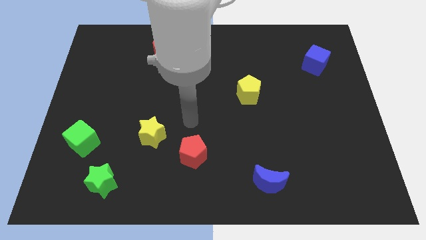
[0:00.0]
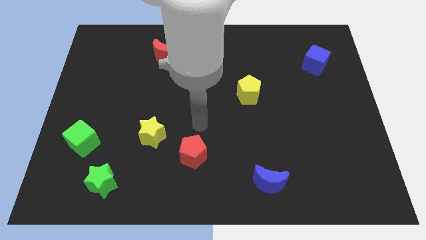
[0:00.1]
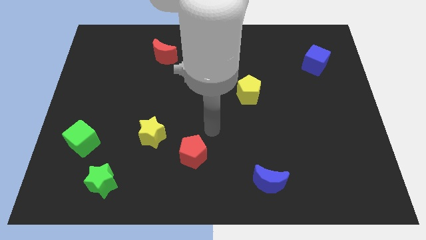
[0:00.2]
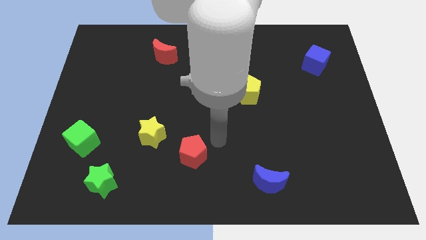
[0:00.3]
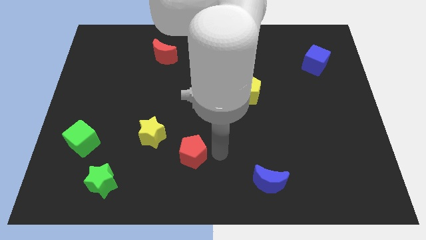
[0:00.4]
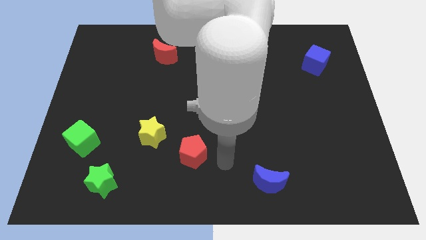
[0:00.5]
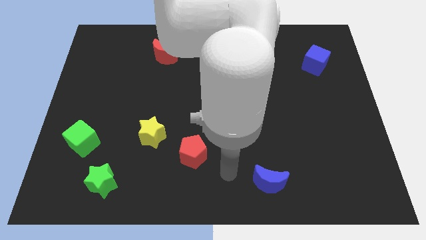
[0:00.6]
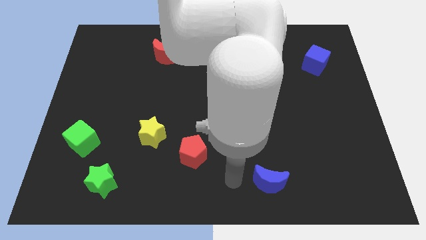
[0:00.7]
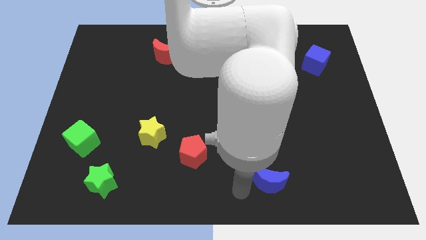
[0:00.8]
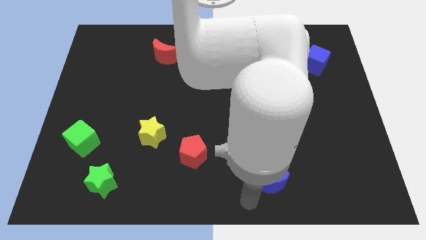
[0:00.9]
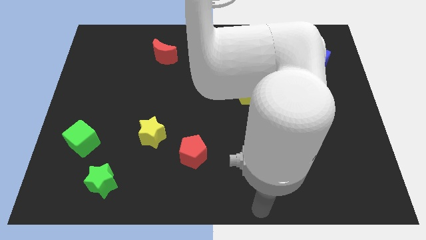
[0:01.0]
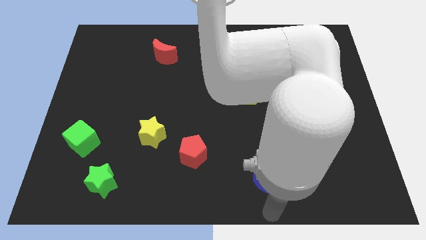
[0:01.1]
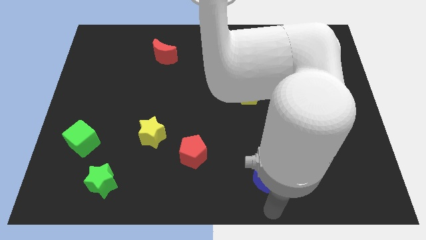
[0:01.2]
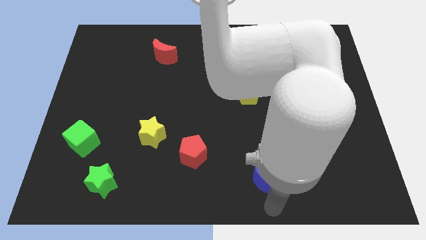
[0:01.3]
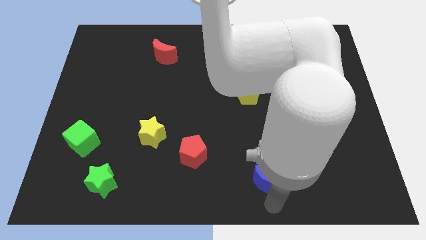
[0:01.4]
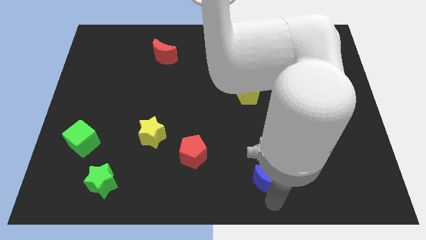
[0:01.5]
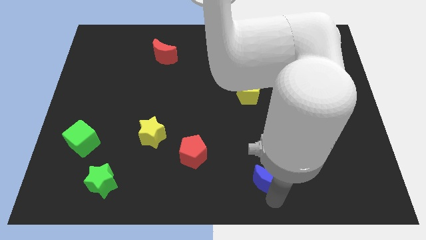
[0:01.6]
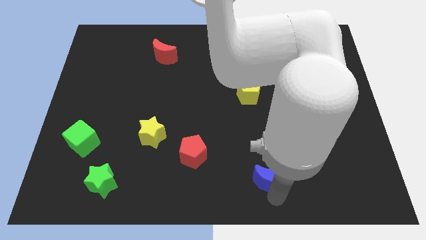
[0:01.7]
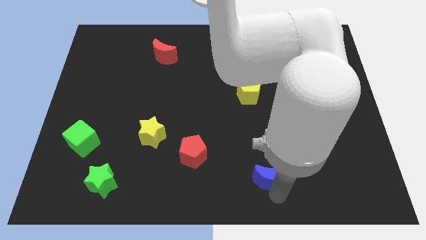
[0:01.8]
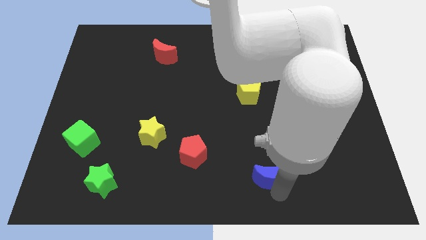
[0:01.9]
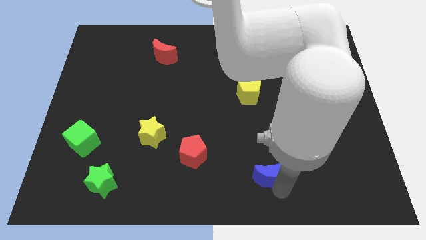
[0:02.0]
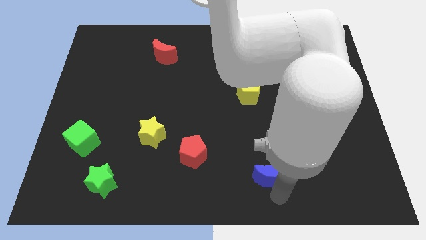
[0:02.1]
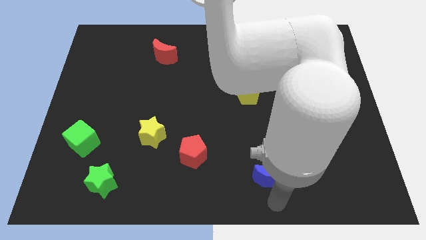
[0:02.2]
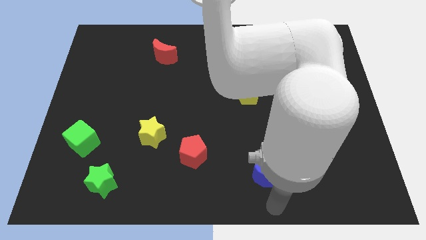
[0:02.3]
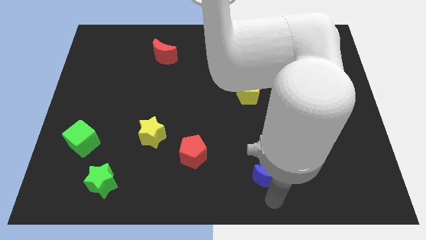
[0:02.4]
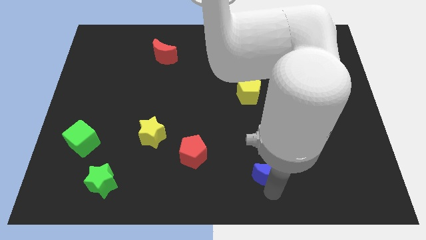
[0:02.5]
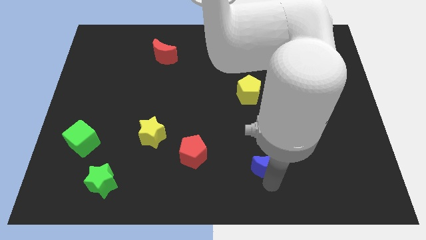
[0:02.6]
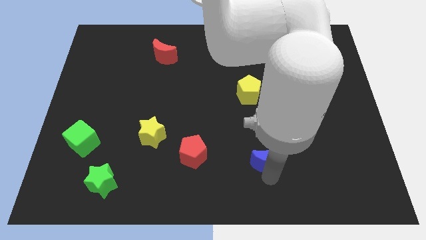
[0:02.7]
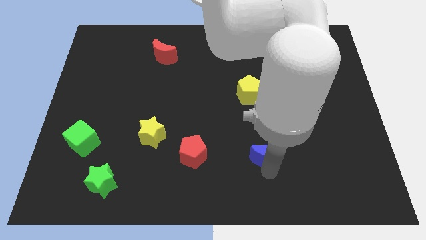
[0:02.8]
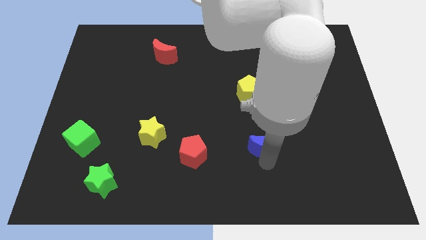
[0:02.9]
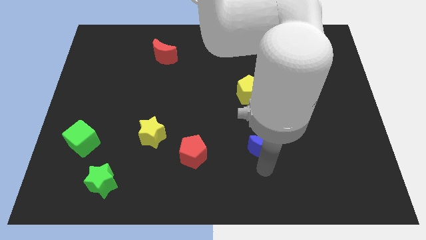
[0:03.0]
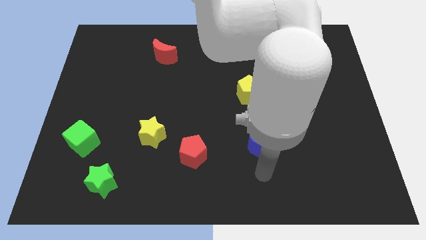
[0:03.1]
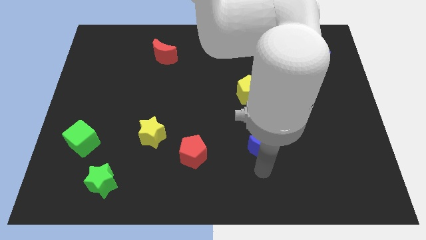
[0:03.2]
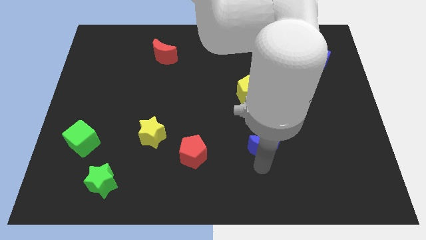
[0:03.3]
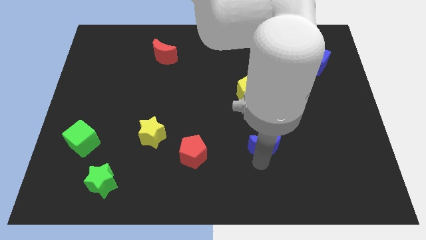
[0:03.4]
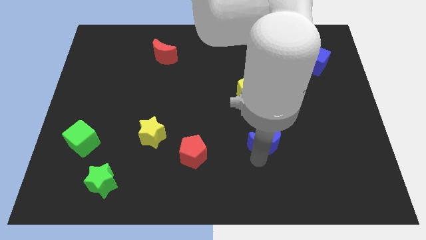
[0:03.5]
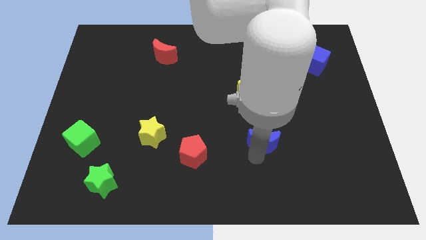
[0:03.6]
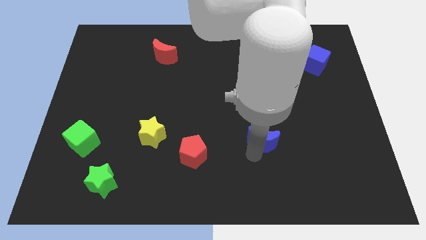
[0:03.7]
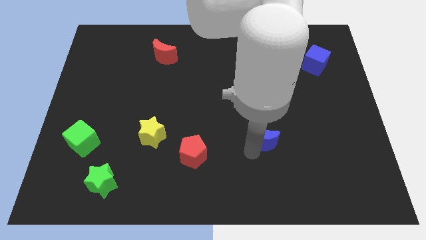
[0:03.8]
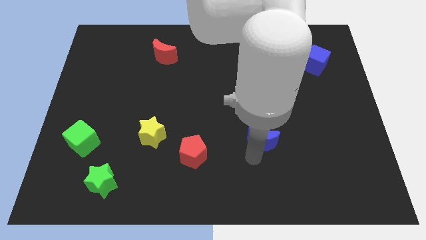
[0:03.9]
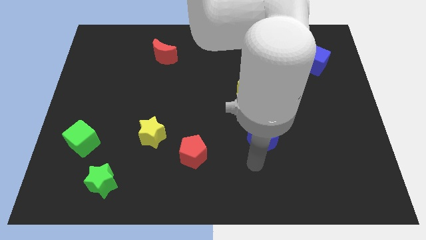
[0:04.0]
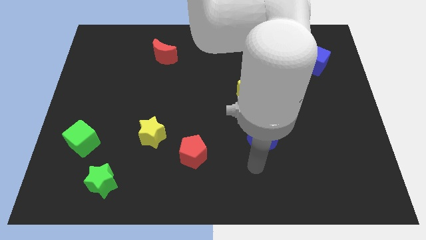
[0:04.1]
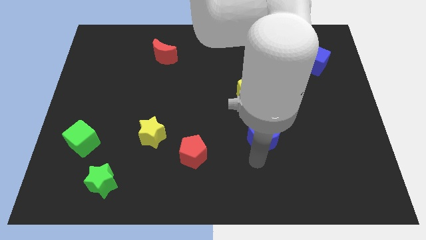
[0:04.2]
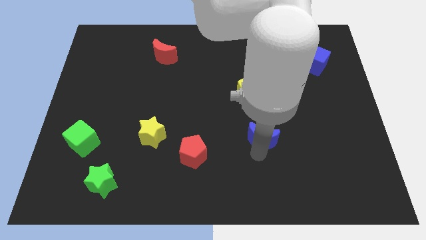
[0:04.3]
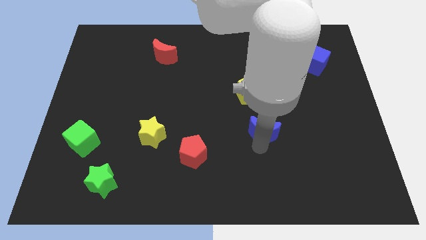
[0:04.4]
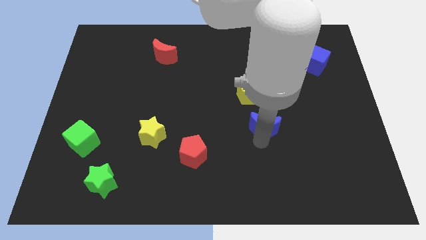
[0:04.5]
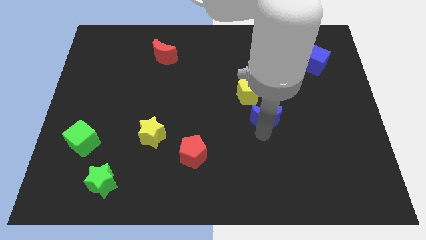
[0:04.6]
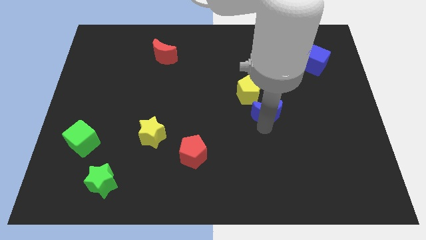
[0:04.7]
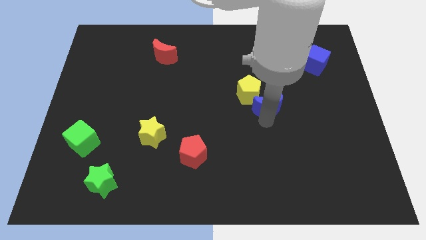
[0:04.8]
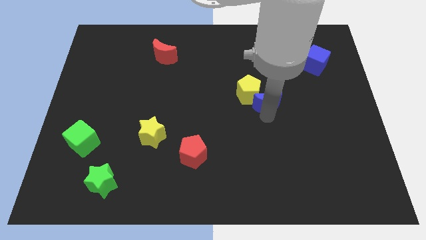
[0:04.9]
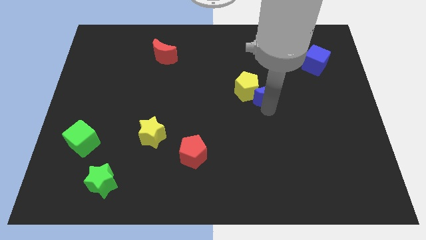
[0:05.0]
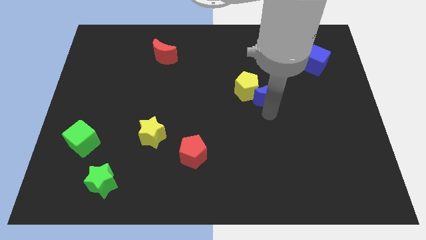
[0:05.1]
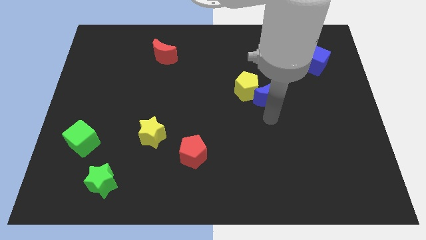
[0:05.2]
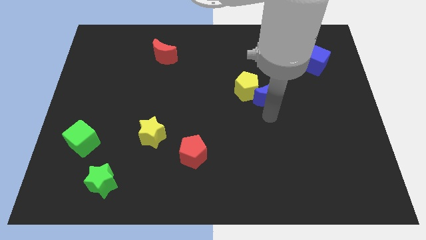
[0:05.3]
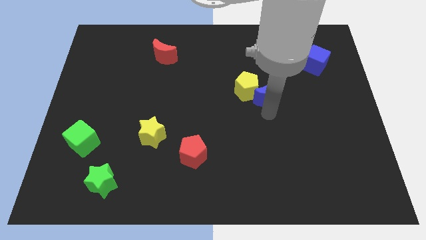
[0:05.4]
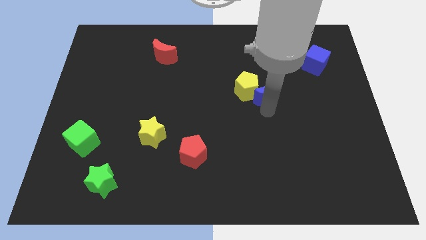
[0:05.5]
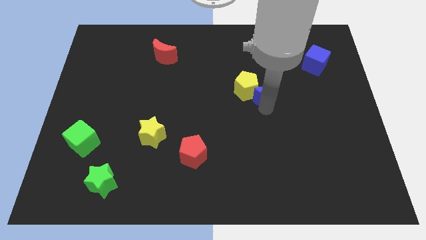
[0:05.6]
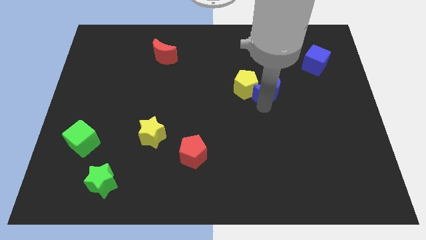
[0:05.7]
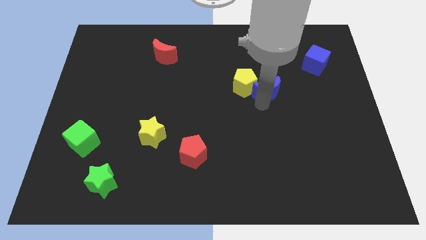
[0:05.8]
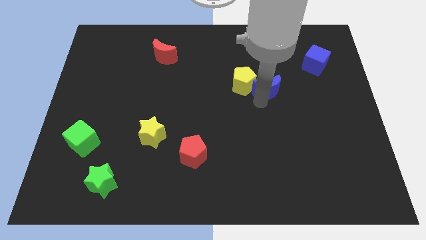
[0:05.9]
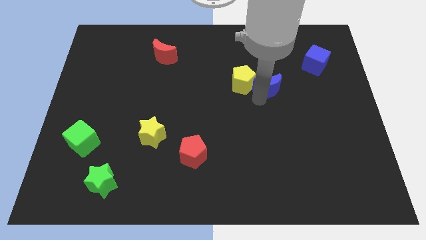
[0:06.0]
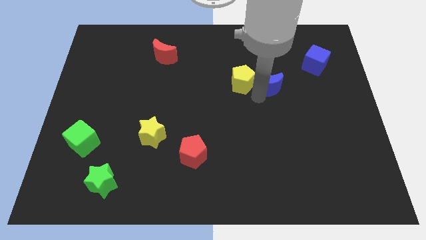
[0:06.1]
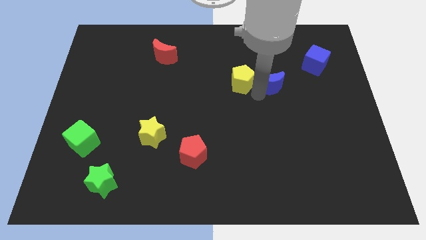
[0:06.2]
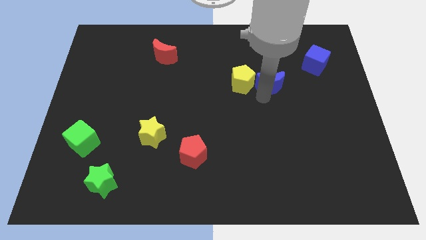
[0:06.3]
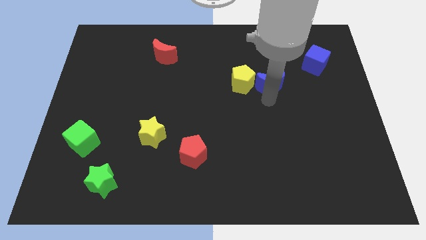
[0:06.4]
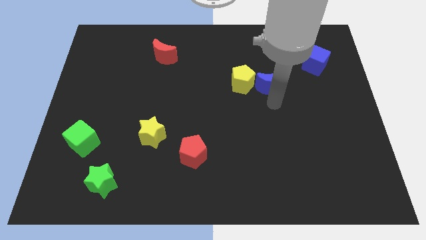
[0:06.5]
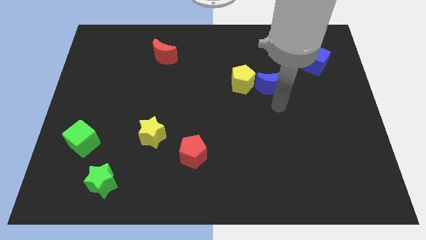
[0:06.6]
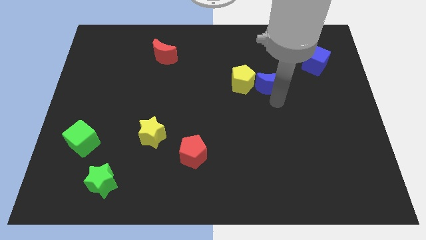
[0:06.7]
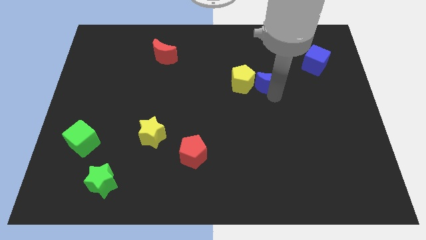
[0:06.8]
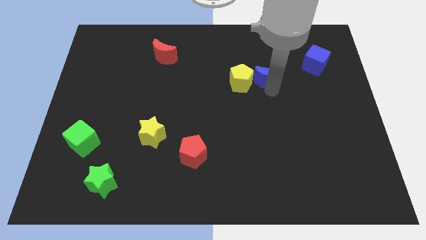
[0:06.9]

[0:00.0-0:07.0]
move the blue moon to the top right of the yellow pentagon
